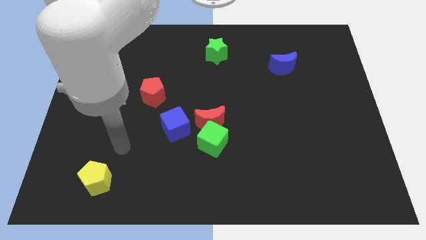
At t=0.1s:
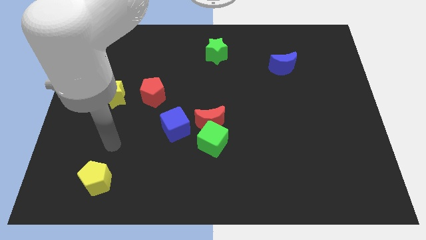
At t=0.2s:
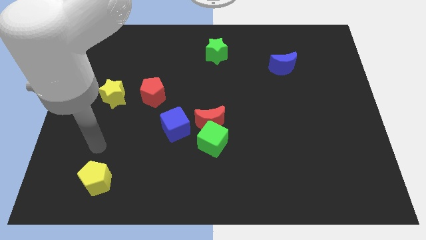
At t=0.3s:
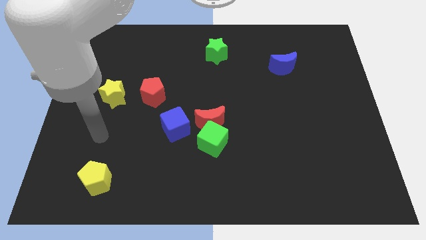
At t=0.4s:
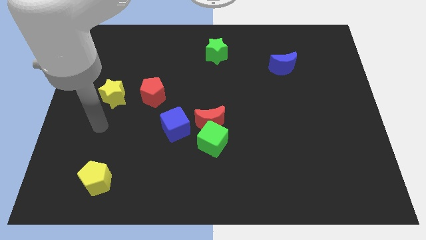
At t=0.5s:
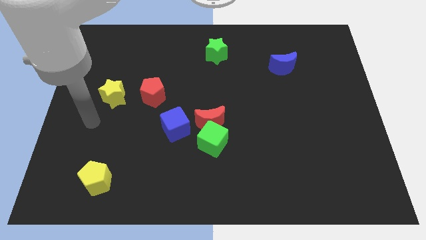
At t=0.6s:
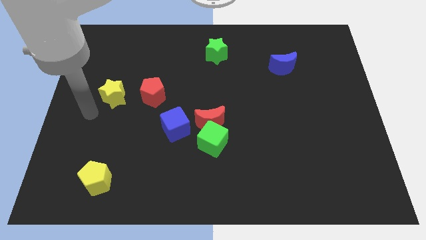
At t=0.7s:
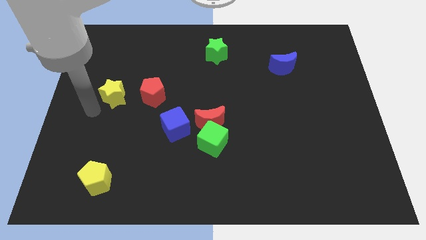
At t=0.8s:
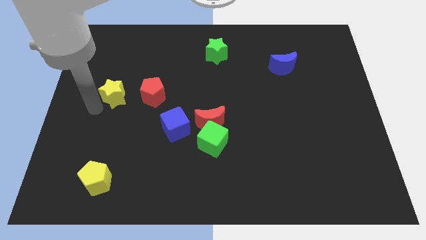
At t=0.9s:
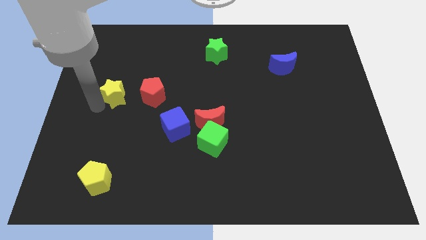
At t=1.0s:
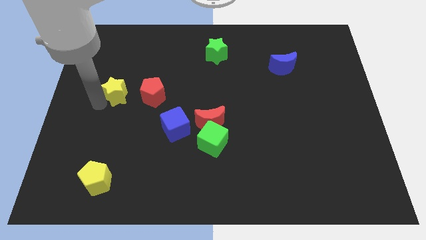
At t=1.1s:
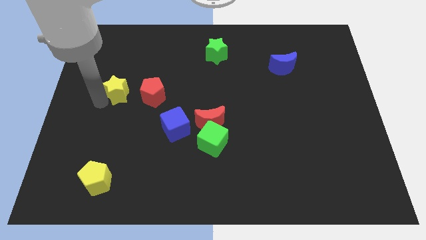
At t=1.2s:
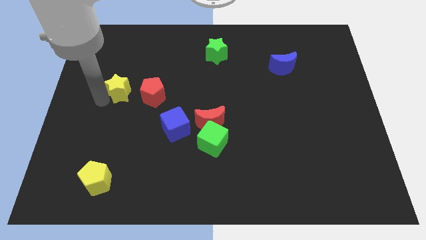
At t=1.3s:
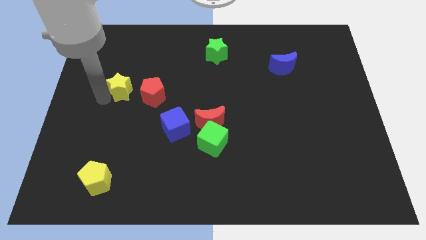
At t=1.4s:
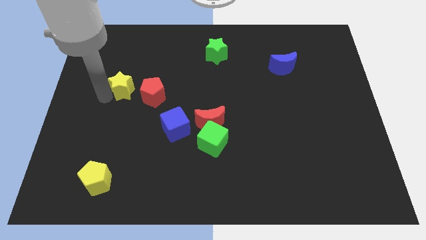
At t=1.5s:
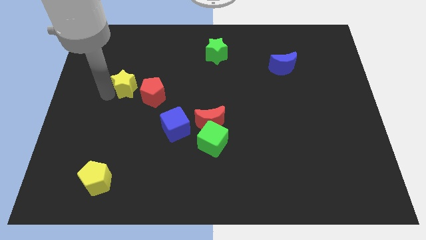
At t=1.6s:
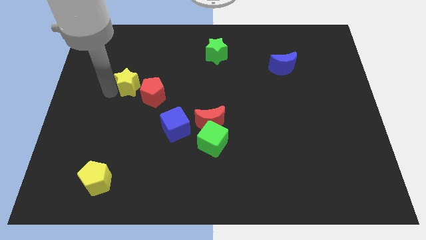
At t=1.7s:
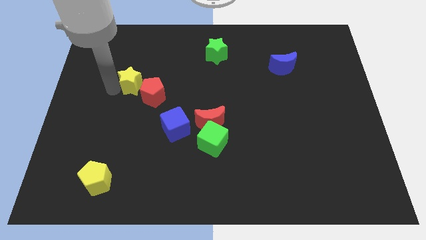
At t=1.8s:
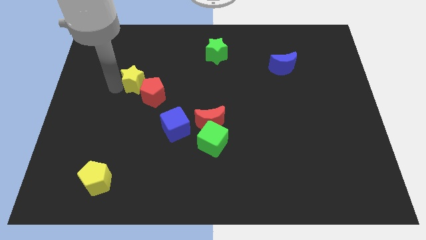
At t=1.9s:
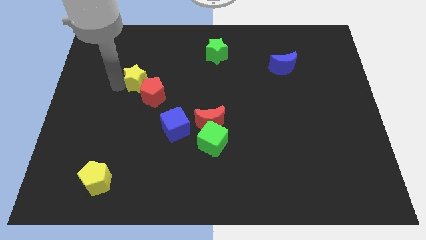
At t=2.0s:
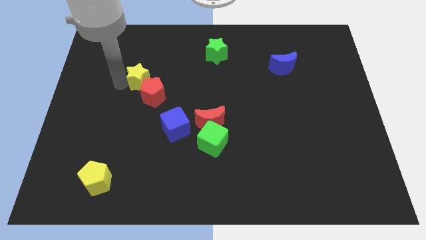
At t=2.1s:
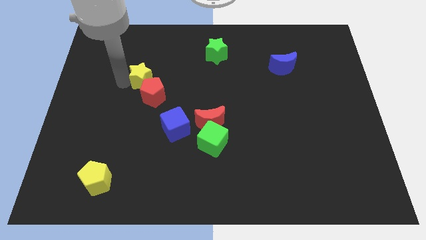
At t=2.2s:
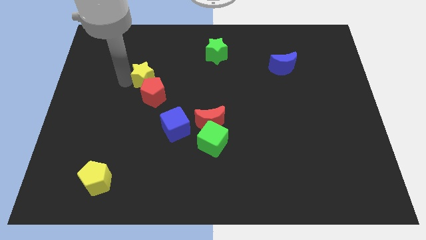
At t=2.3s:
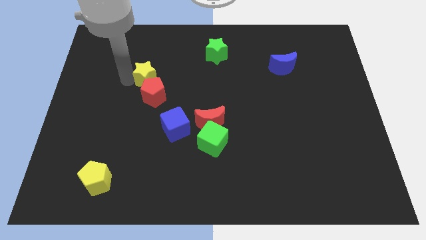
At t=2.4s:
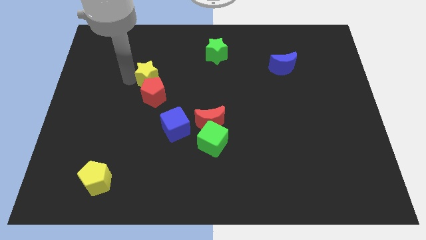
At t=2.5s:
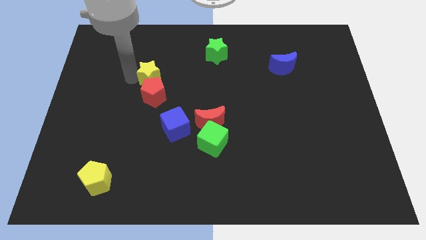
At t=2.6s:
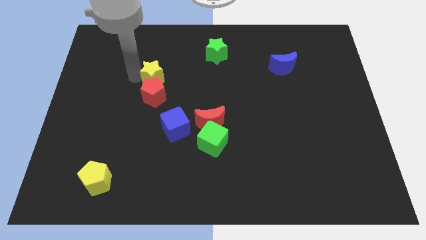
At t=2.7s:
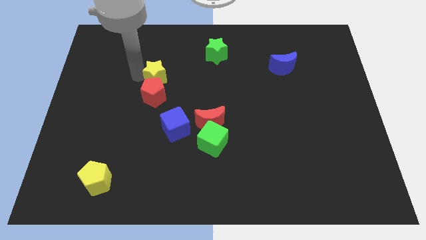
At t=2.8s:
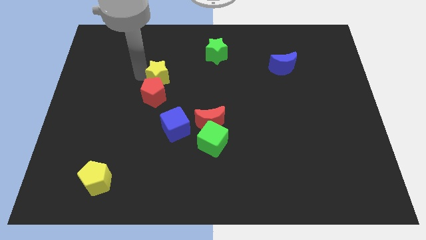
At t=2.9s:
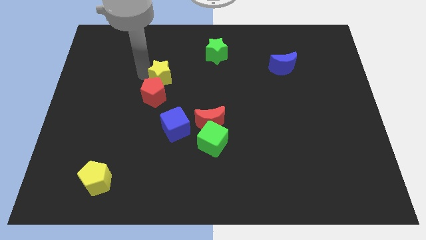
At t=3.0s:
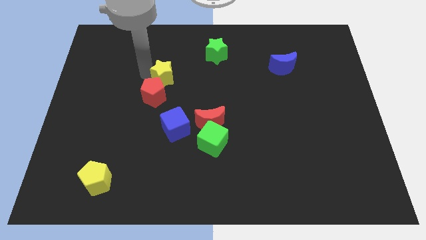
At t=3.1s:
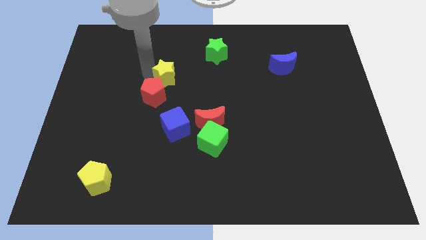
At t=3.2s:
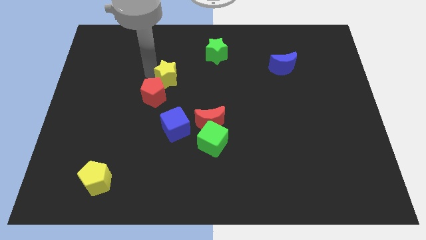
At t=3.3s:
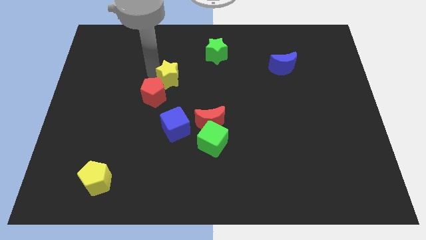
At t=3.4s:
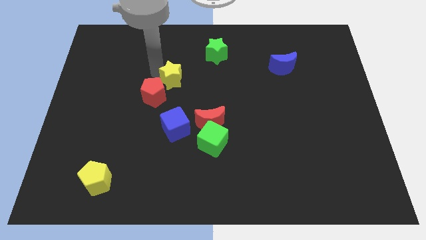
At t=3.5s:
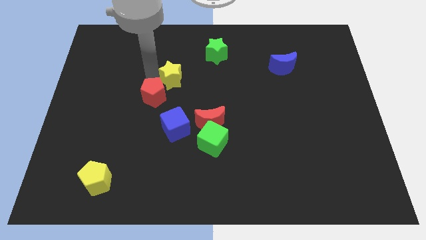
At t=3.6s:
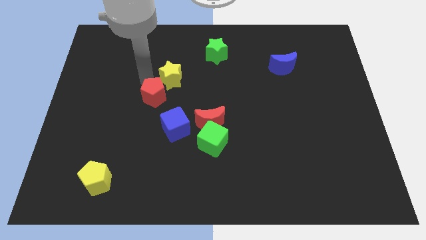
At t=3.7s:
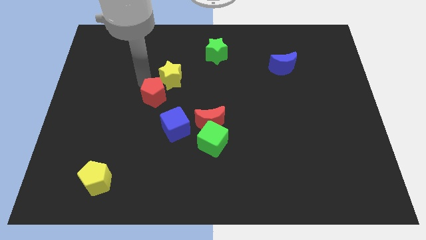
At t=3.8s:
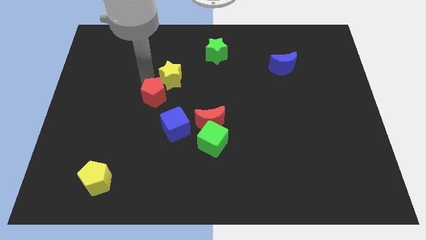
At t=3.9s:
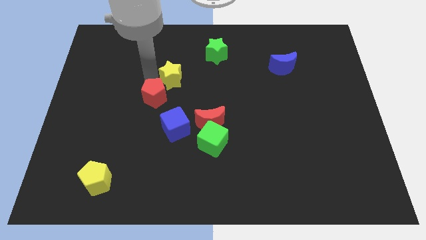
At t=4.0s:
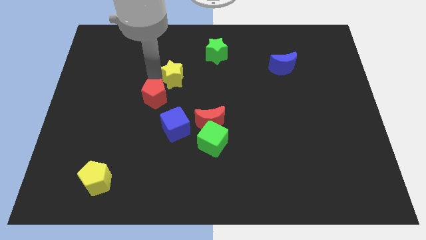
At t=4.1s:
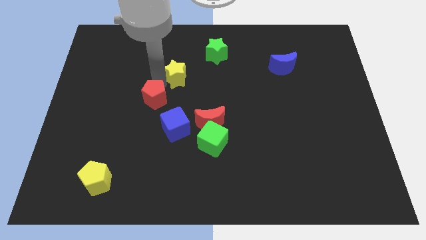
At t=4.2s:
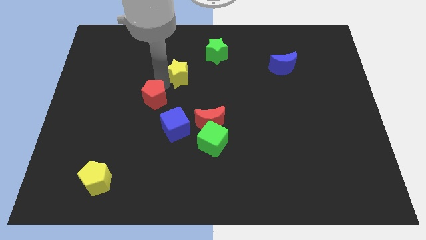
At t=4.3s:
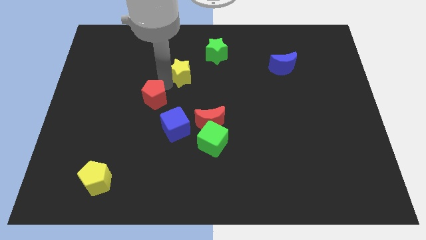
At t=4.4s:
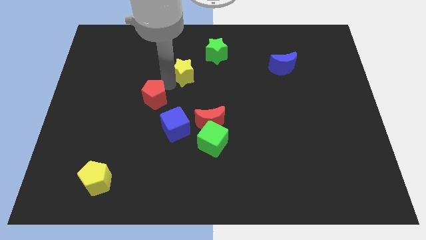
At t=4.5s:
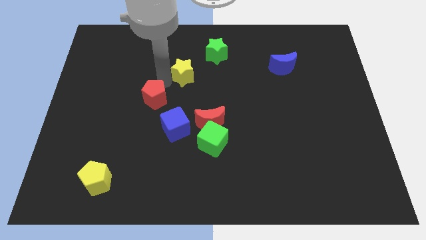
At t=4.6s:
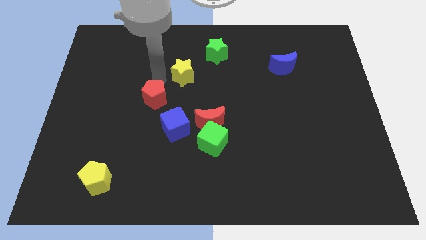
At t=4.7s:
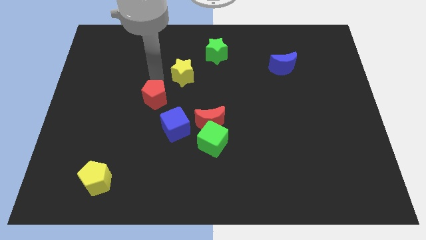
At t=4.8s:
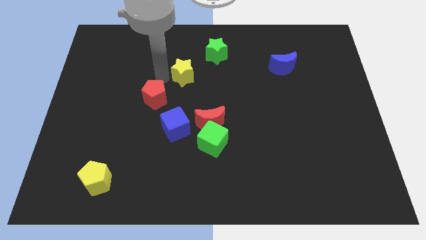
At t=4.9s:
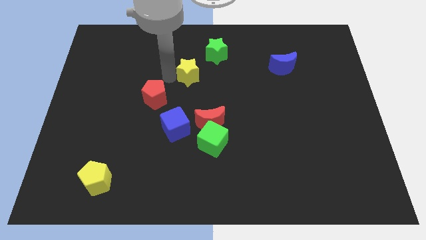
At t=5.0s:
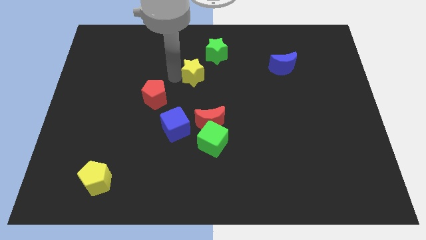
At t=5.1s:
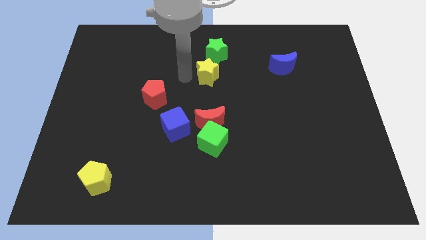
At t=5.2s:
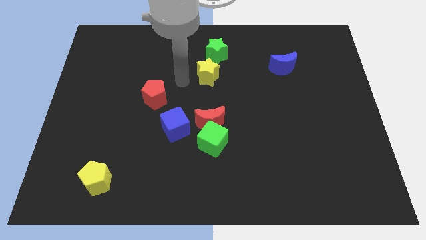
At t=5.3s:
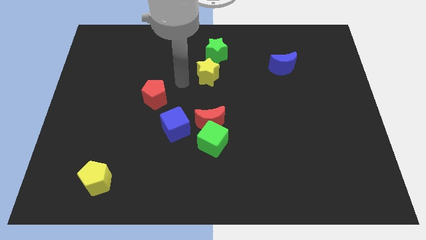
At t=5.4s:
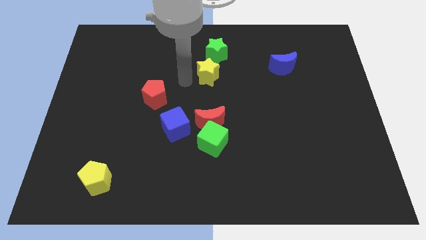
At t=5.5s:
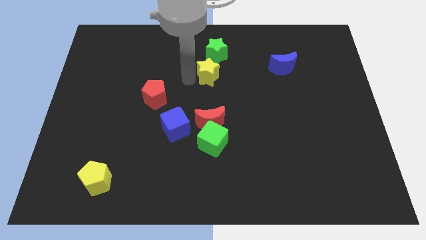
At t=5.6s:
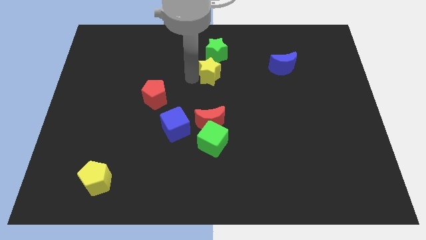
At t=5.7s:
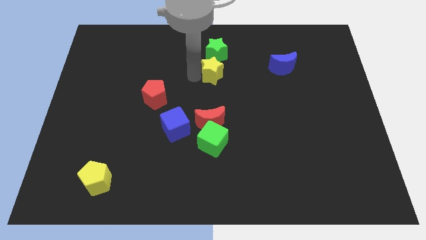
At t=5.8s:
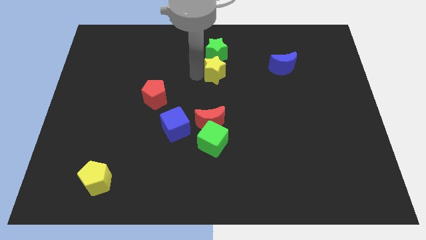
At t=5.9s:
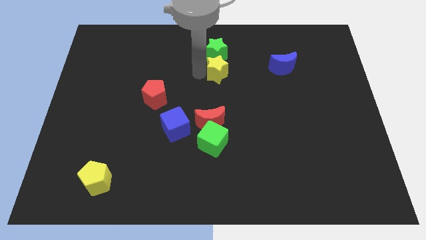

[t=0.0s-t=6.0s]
put the yellow star to the bottom right side of the green star

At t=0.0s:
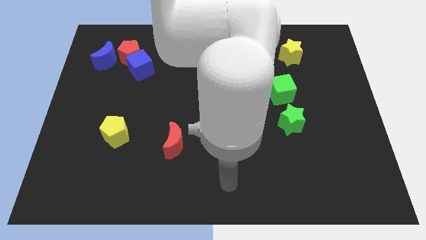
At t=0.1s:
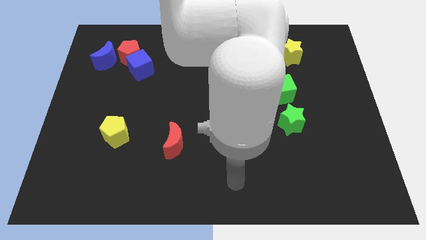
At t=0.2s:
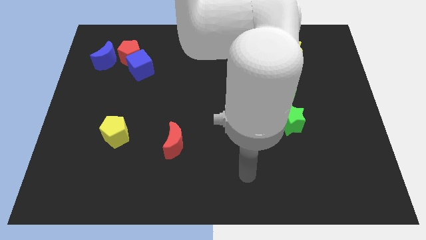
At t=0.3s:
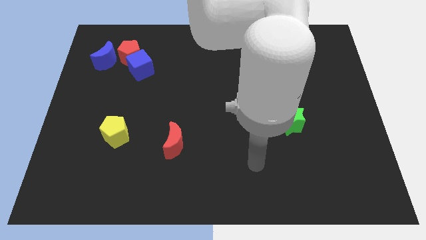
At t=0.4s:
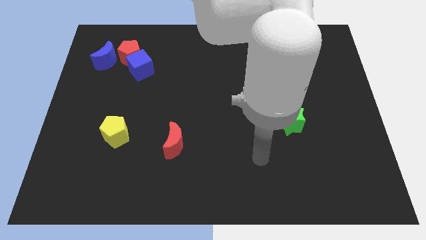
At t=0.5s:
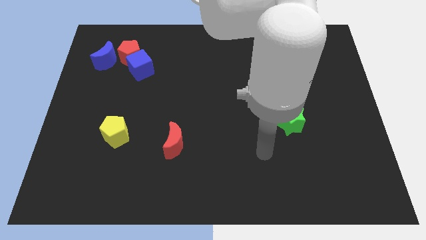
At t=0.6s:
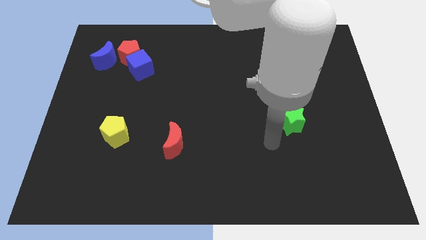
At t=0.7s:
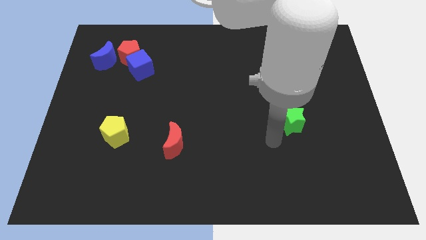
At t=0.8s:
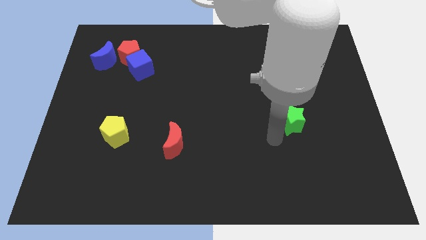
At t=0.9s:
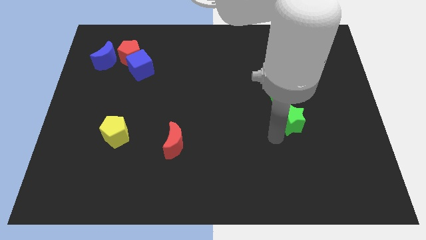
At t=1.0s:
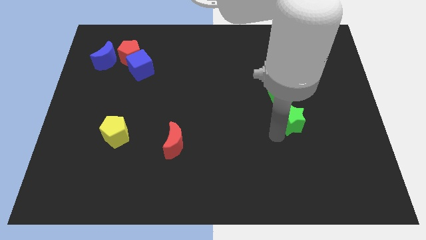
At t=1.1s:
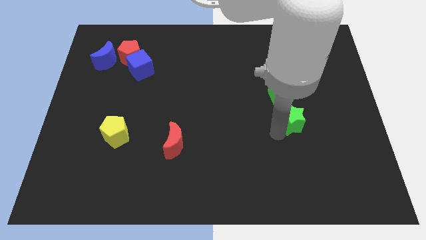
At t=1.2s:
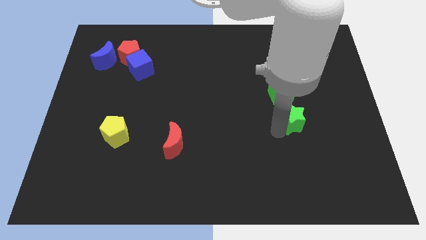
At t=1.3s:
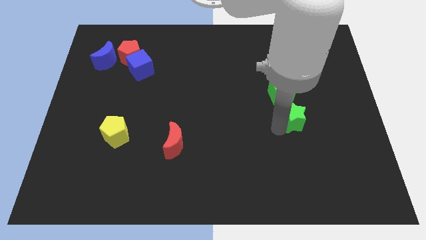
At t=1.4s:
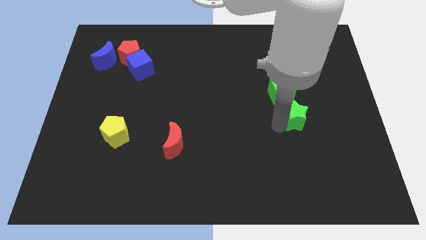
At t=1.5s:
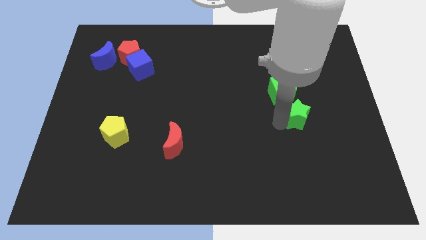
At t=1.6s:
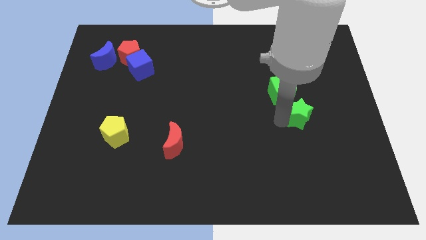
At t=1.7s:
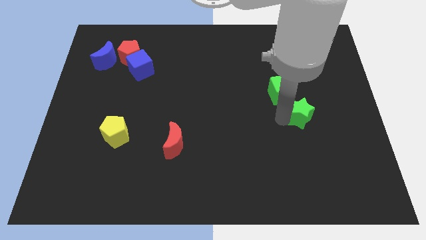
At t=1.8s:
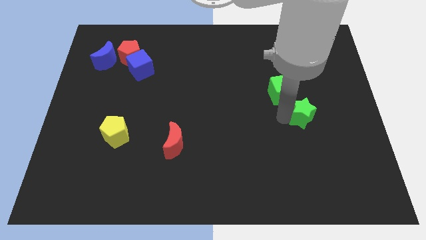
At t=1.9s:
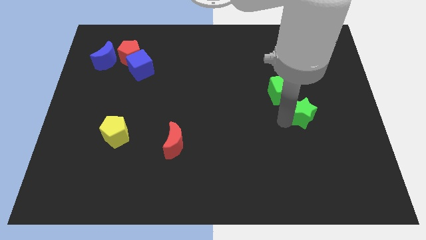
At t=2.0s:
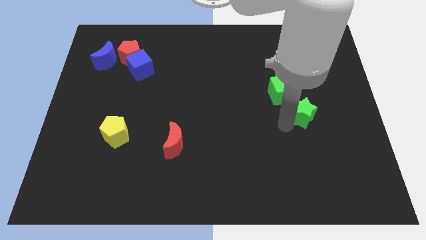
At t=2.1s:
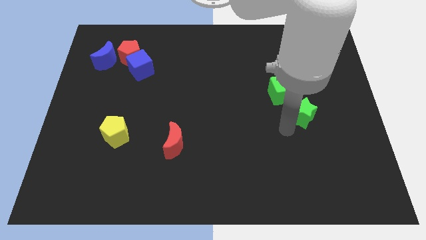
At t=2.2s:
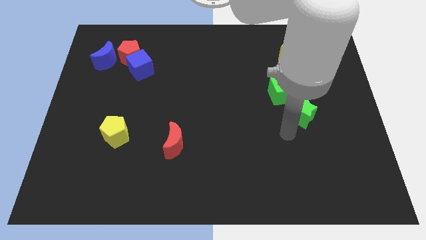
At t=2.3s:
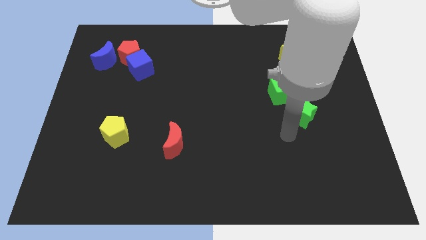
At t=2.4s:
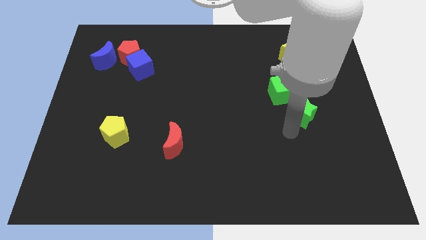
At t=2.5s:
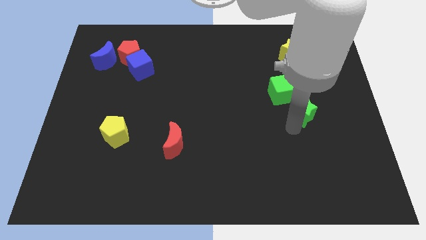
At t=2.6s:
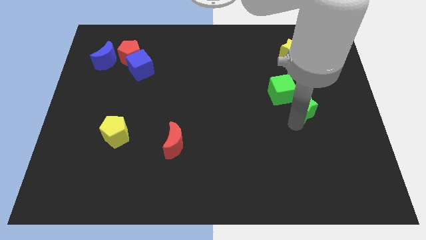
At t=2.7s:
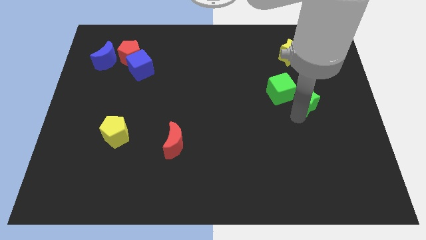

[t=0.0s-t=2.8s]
move the green star just right of the green cube
